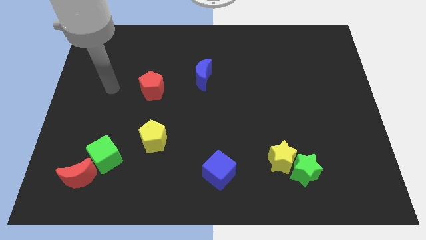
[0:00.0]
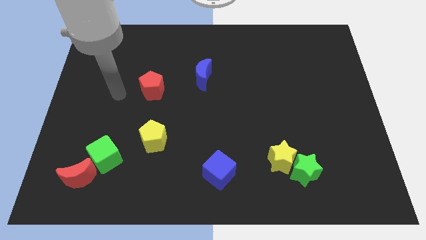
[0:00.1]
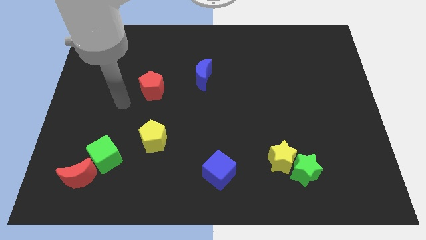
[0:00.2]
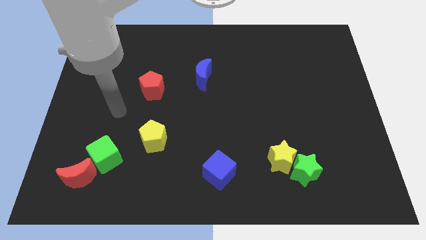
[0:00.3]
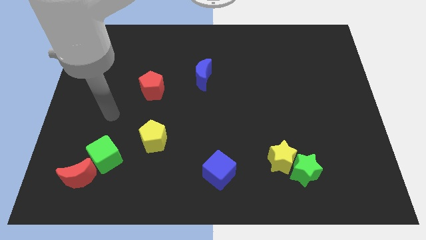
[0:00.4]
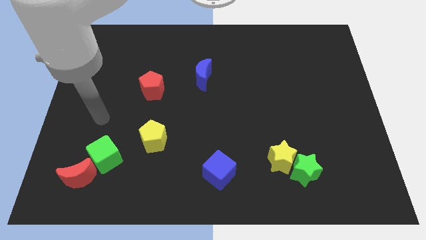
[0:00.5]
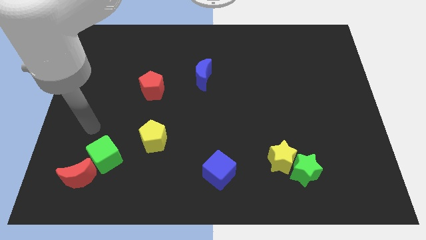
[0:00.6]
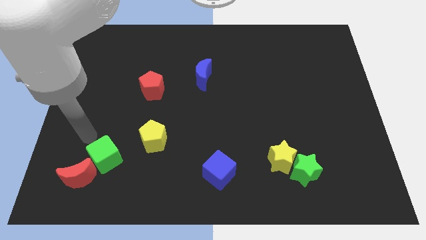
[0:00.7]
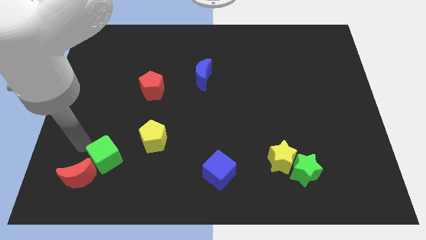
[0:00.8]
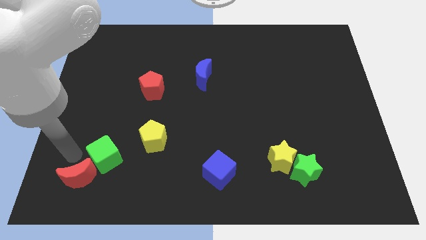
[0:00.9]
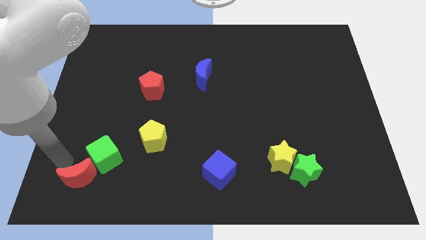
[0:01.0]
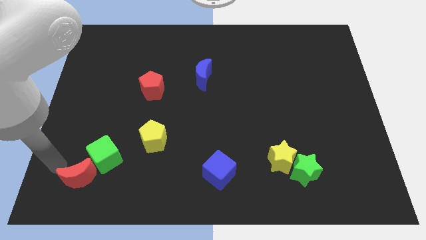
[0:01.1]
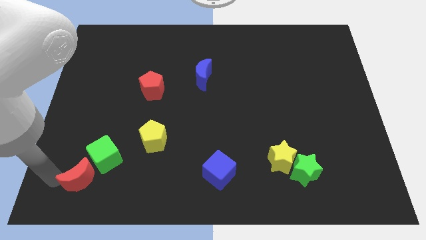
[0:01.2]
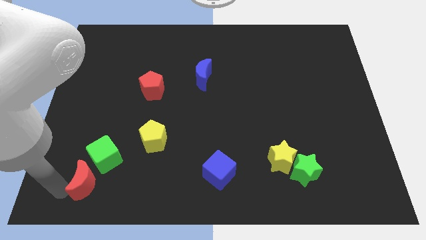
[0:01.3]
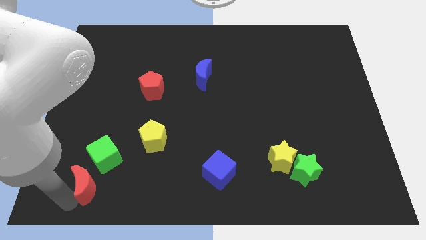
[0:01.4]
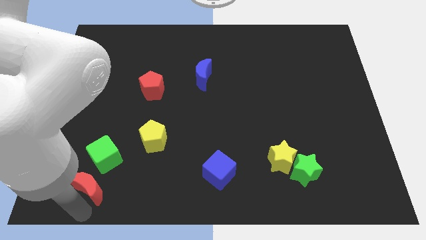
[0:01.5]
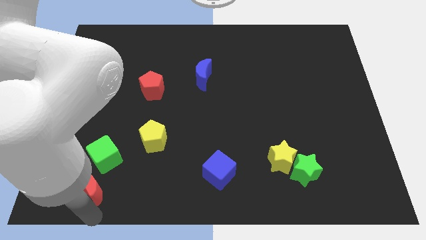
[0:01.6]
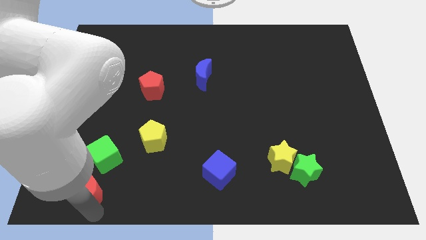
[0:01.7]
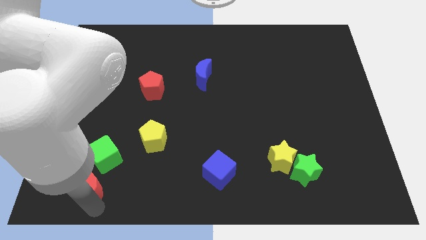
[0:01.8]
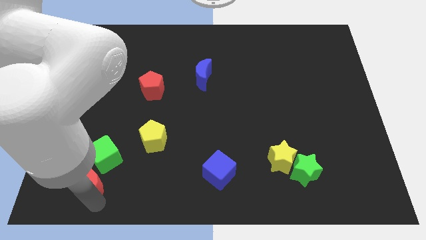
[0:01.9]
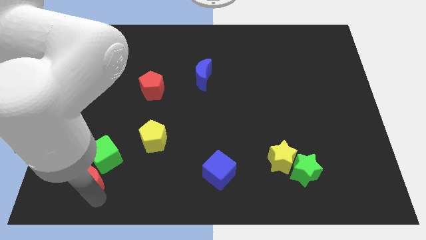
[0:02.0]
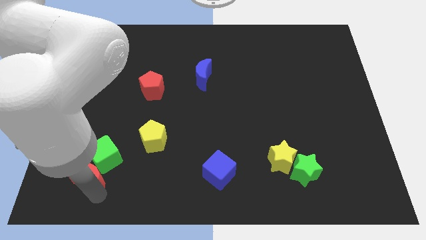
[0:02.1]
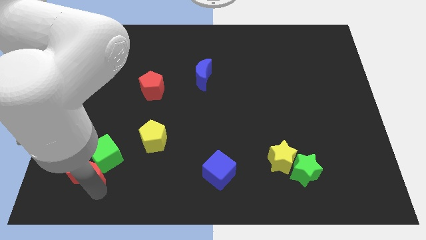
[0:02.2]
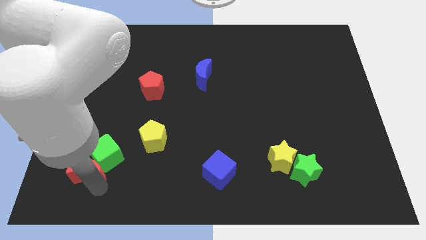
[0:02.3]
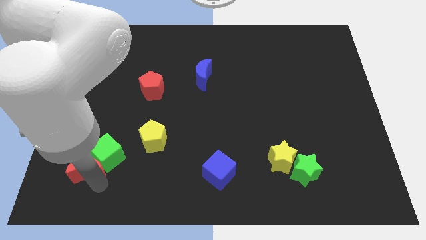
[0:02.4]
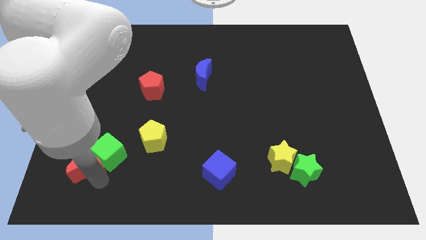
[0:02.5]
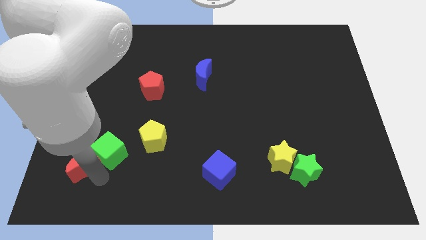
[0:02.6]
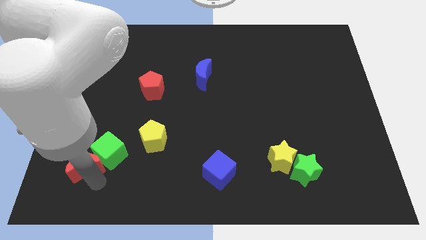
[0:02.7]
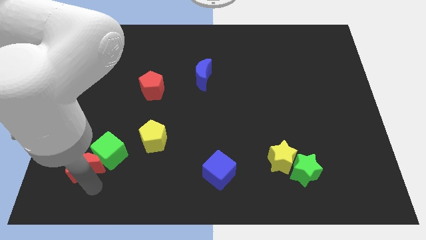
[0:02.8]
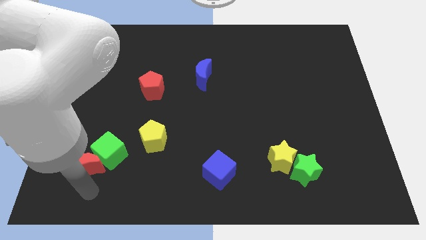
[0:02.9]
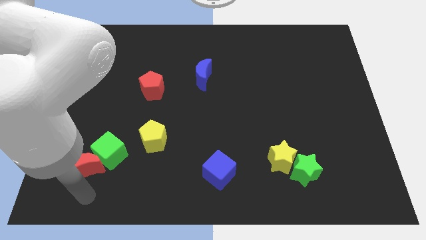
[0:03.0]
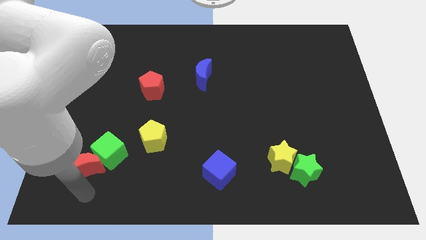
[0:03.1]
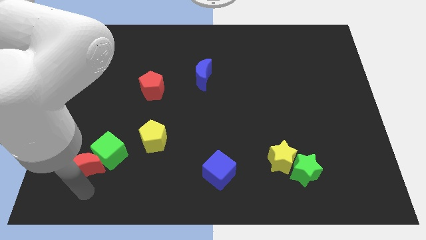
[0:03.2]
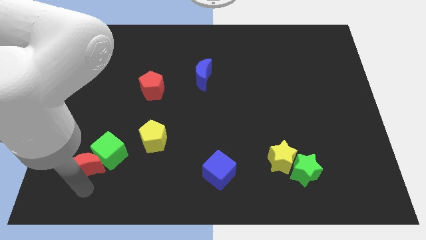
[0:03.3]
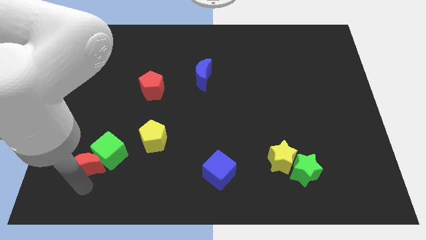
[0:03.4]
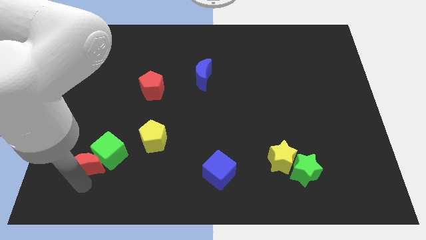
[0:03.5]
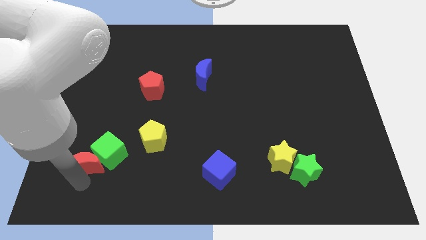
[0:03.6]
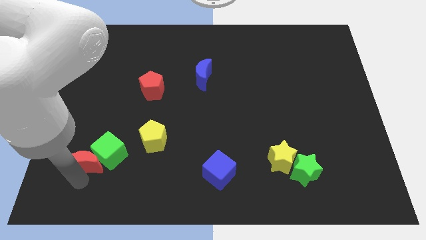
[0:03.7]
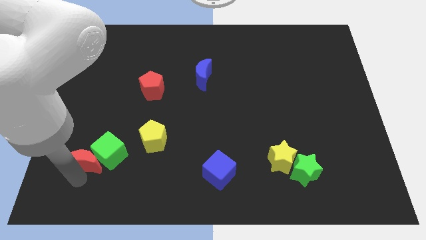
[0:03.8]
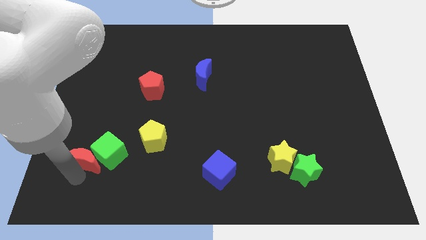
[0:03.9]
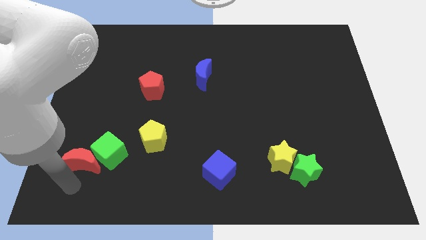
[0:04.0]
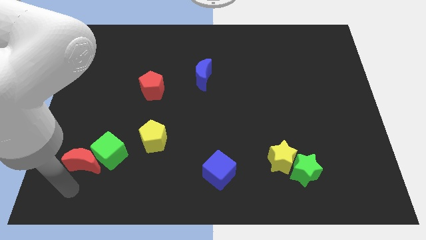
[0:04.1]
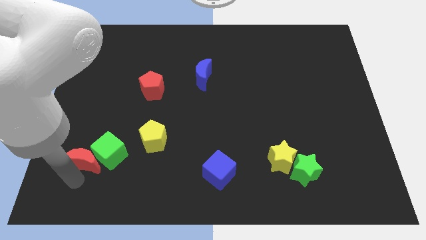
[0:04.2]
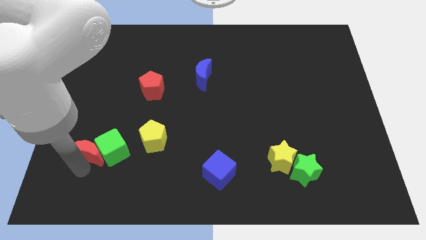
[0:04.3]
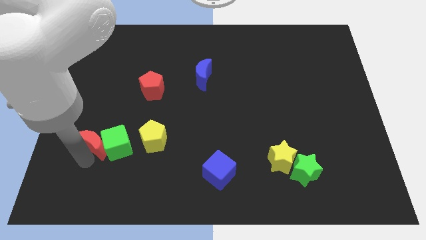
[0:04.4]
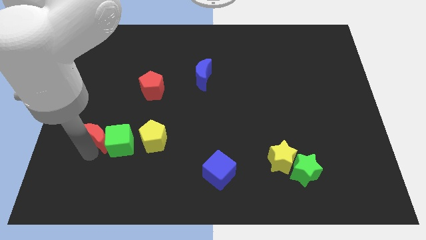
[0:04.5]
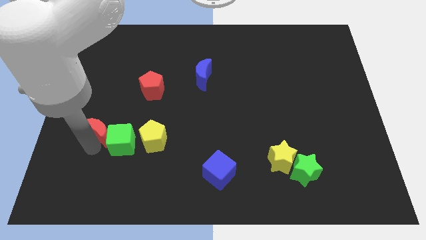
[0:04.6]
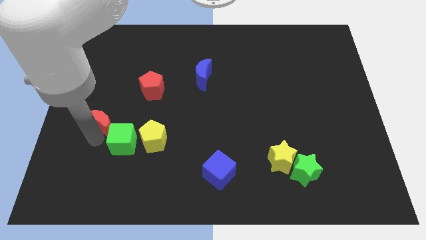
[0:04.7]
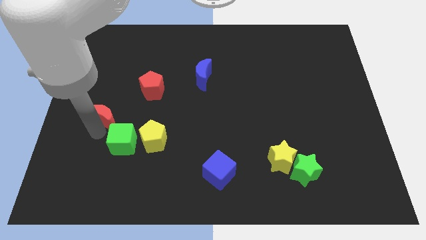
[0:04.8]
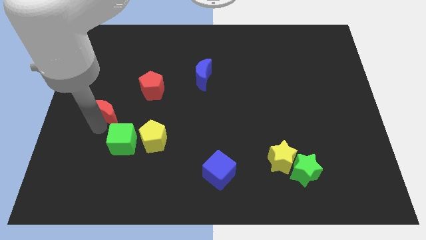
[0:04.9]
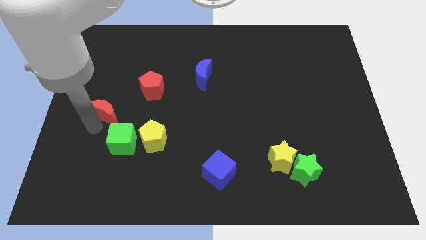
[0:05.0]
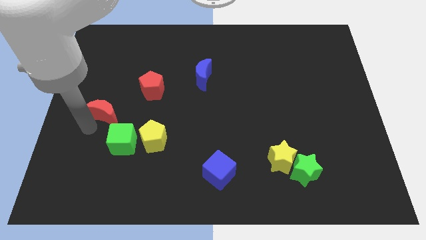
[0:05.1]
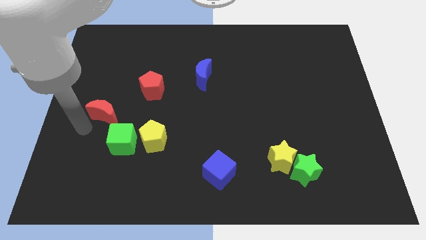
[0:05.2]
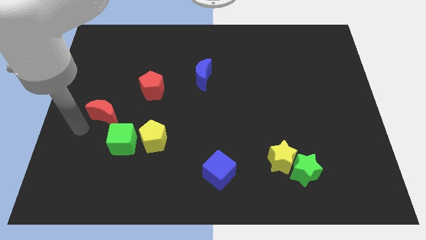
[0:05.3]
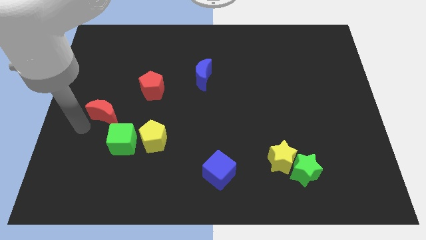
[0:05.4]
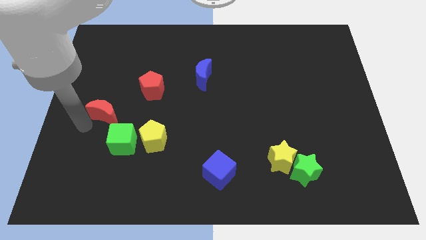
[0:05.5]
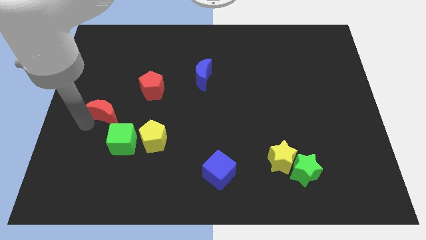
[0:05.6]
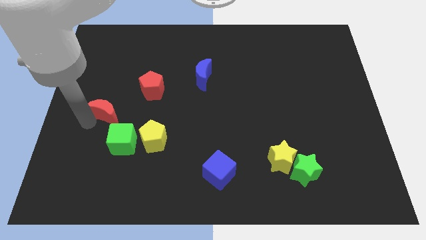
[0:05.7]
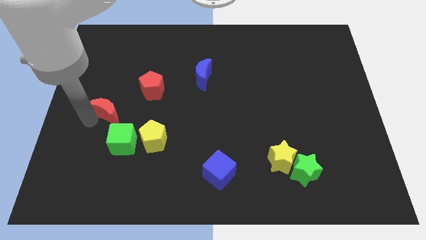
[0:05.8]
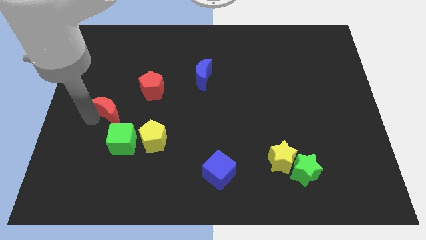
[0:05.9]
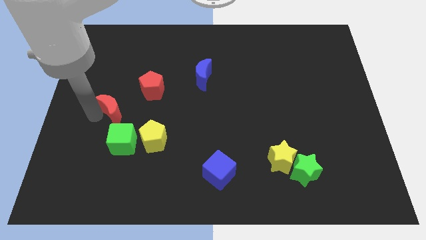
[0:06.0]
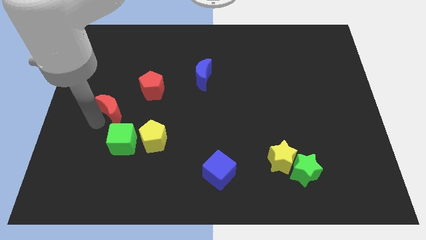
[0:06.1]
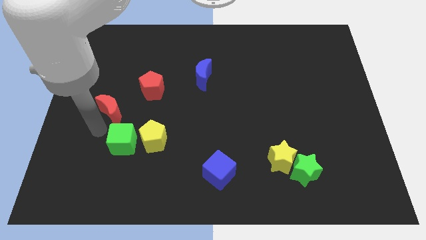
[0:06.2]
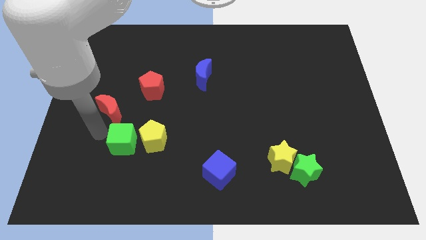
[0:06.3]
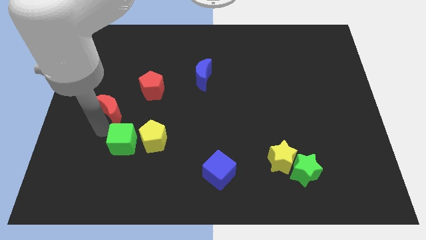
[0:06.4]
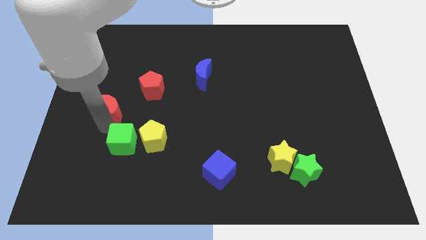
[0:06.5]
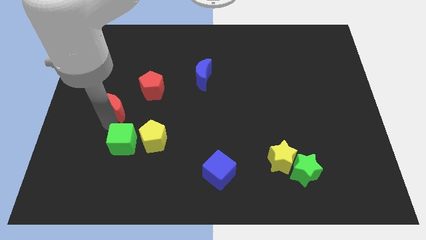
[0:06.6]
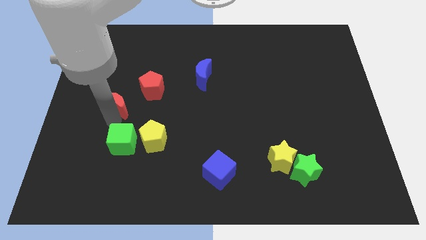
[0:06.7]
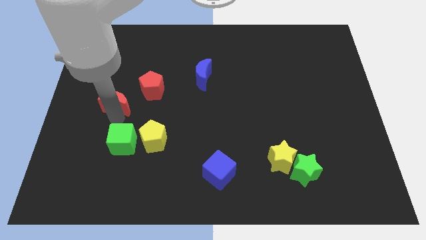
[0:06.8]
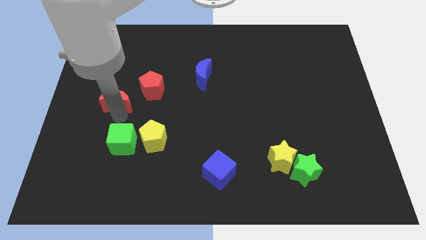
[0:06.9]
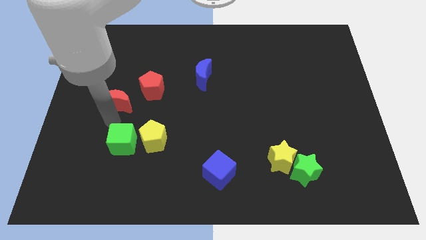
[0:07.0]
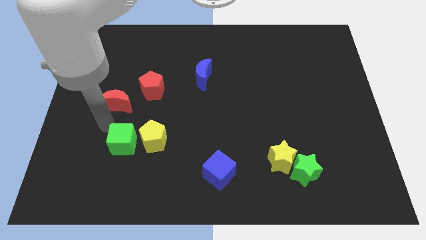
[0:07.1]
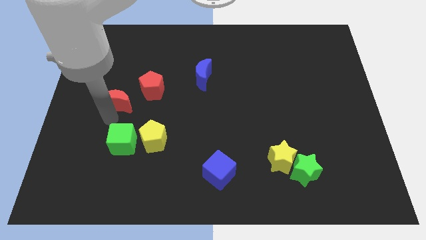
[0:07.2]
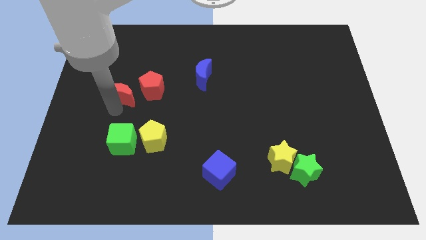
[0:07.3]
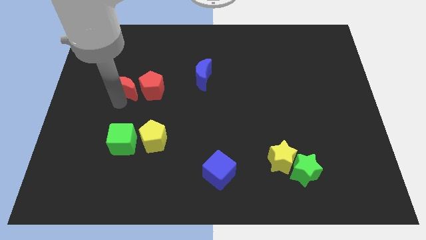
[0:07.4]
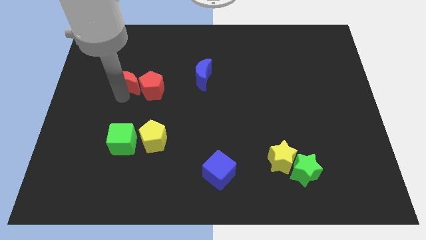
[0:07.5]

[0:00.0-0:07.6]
move the red moon diagonally up and to the left of the red pentagon
